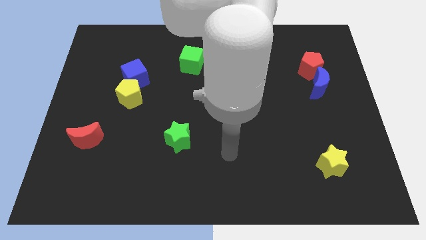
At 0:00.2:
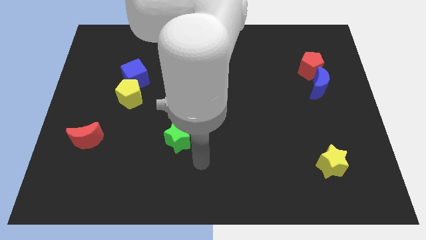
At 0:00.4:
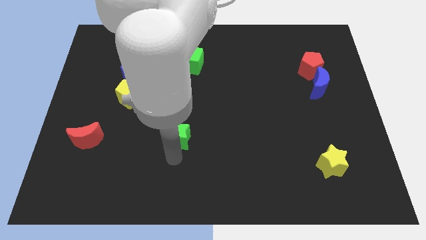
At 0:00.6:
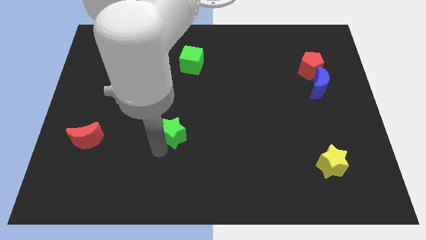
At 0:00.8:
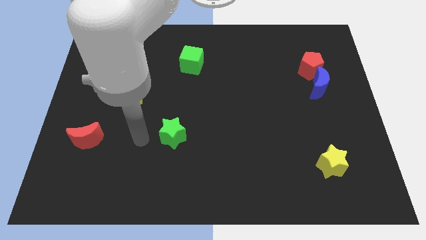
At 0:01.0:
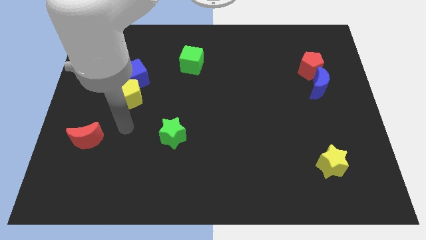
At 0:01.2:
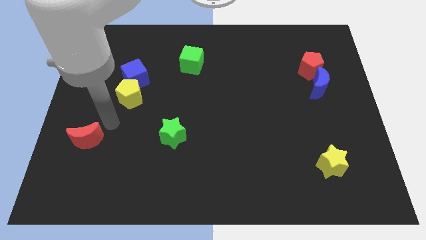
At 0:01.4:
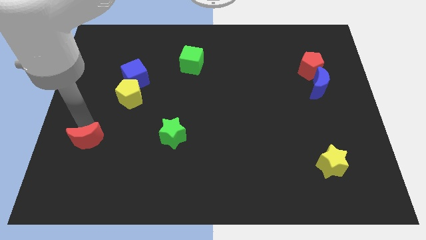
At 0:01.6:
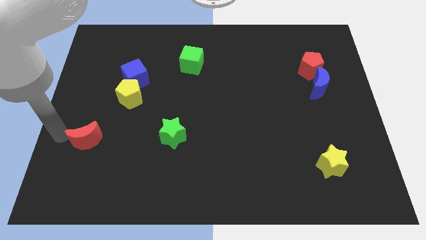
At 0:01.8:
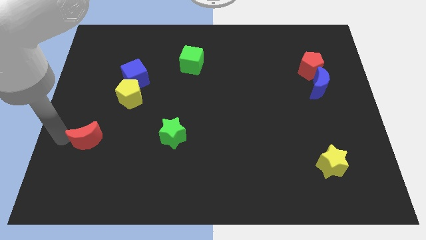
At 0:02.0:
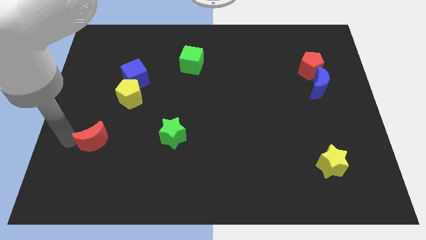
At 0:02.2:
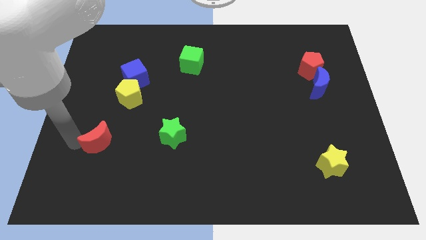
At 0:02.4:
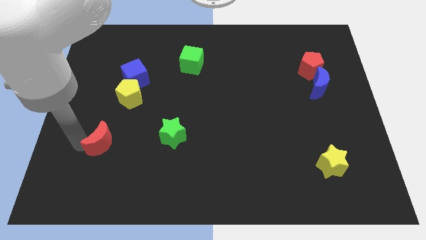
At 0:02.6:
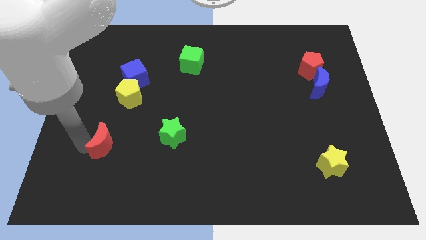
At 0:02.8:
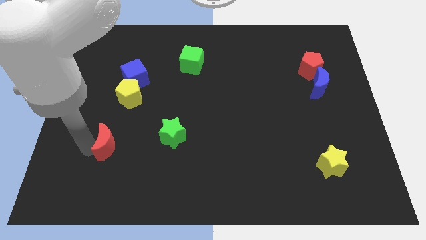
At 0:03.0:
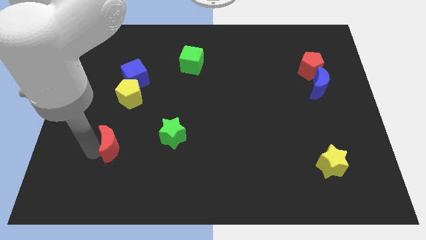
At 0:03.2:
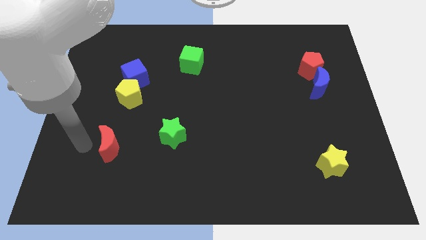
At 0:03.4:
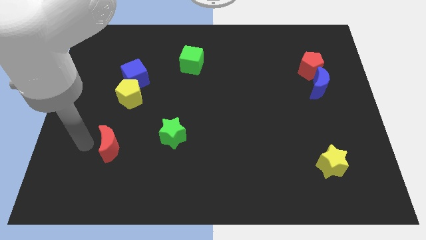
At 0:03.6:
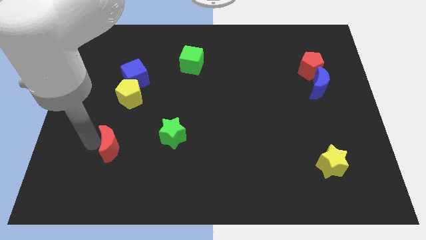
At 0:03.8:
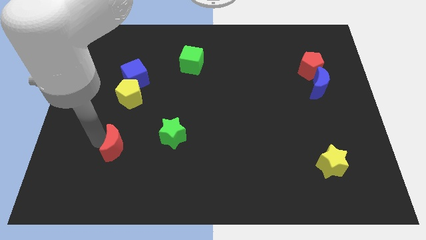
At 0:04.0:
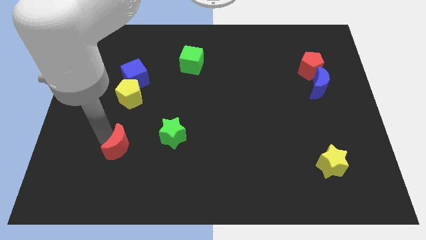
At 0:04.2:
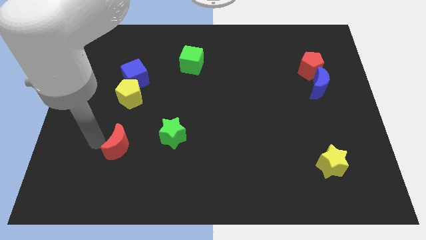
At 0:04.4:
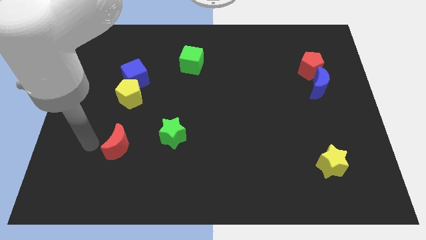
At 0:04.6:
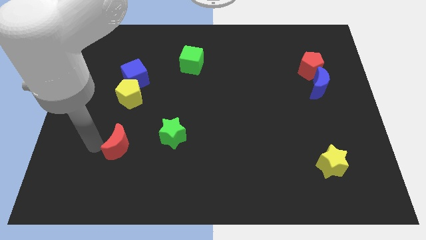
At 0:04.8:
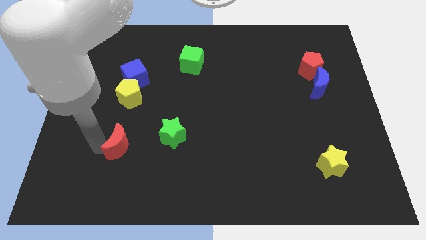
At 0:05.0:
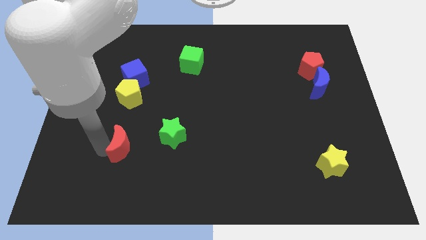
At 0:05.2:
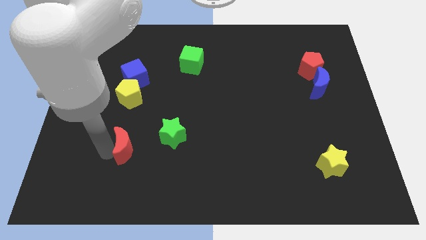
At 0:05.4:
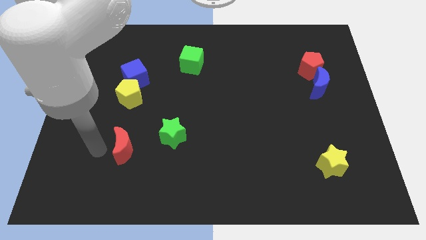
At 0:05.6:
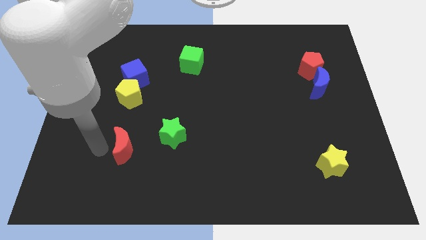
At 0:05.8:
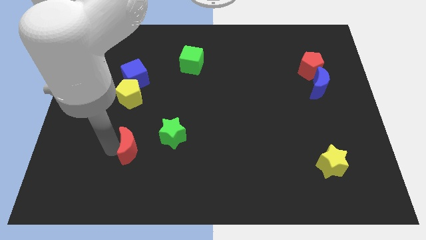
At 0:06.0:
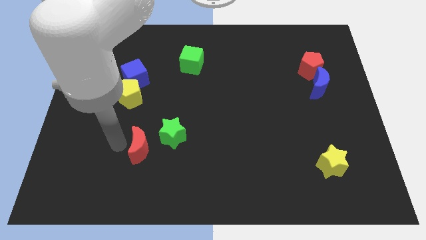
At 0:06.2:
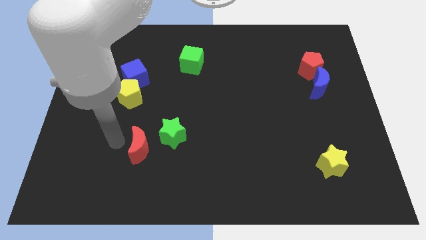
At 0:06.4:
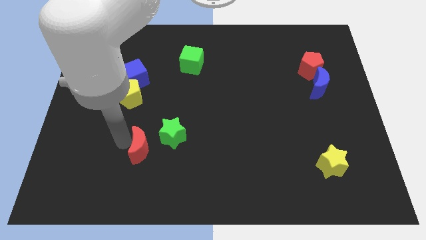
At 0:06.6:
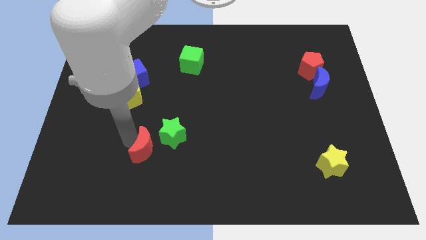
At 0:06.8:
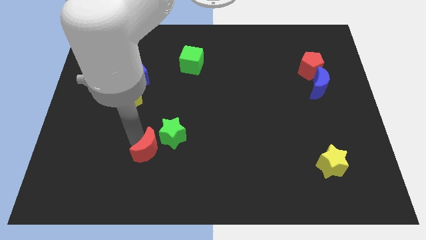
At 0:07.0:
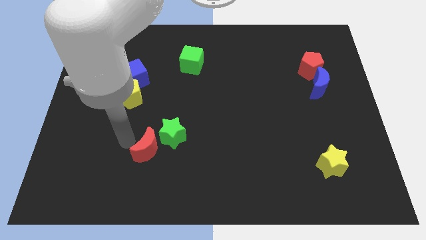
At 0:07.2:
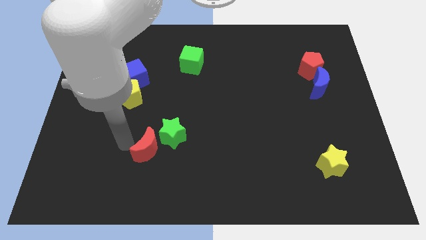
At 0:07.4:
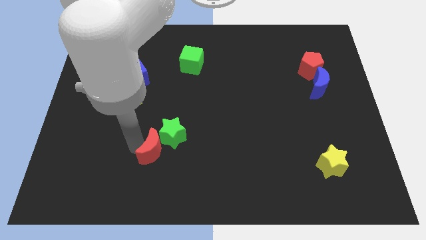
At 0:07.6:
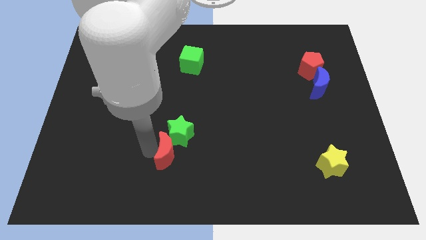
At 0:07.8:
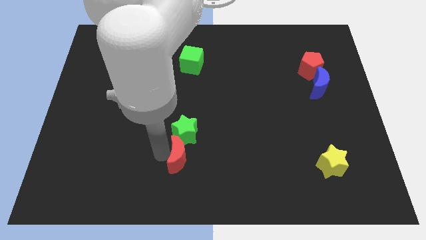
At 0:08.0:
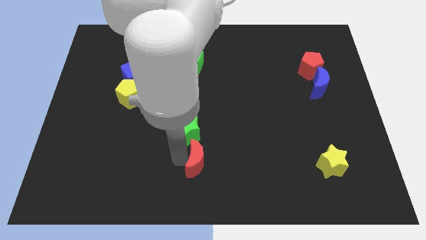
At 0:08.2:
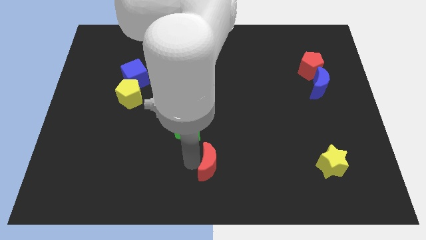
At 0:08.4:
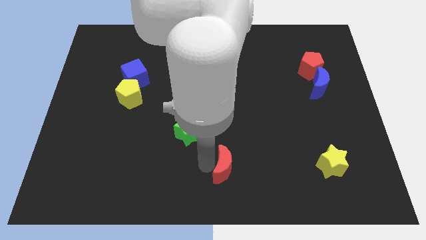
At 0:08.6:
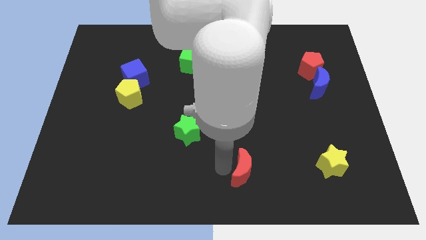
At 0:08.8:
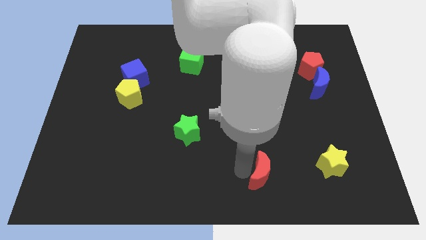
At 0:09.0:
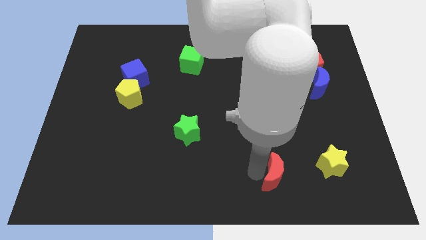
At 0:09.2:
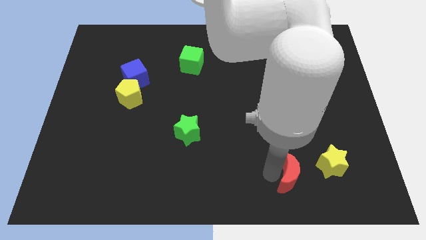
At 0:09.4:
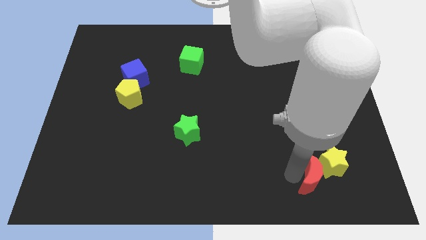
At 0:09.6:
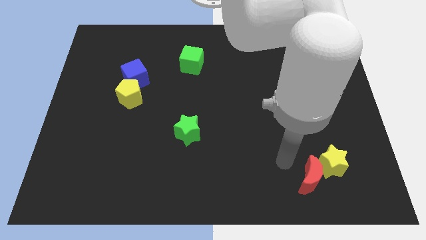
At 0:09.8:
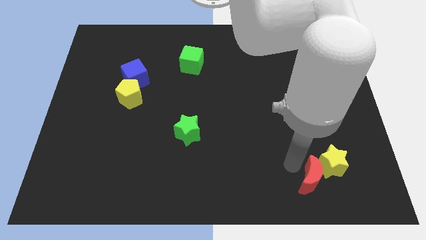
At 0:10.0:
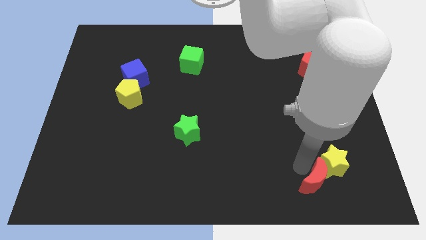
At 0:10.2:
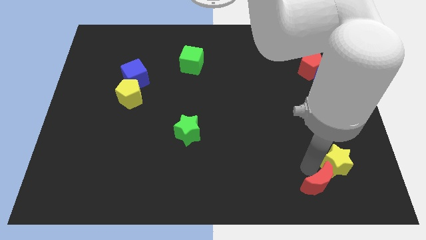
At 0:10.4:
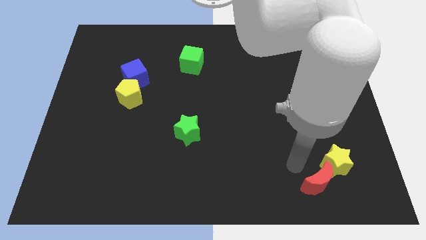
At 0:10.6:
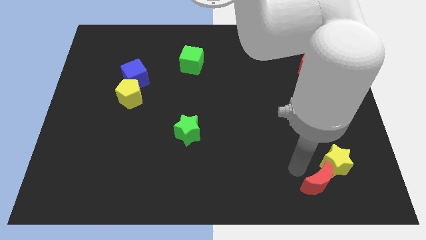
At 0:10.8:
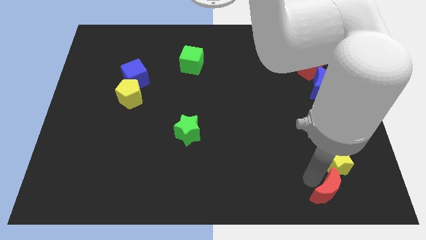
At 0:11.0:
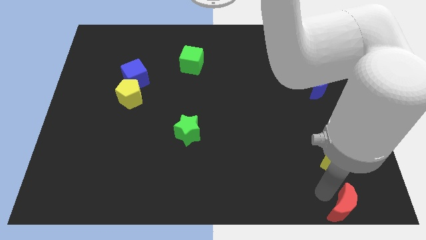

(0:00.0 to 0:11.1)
slide the red moon to the bottom right

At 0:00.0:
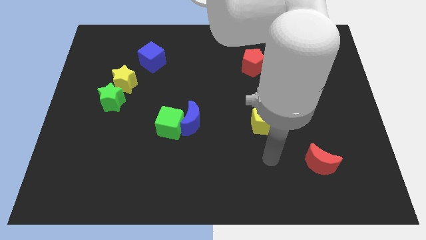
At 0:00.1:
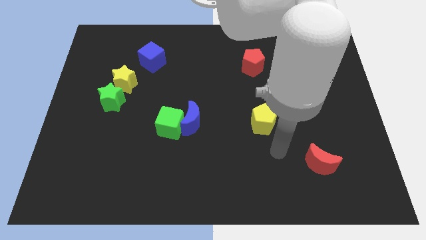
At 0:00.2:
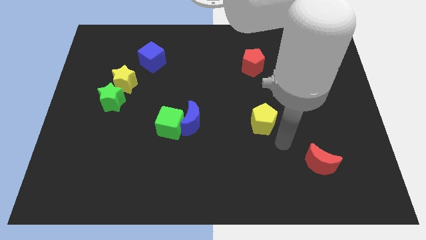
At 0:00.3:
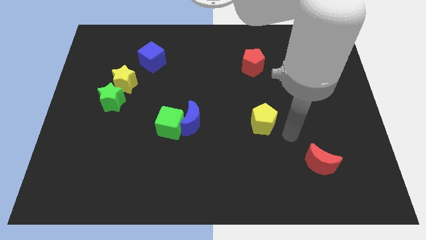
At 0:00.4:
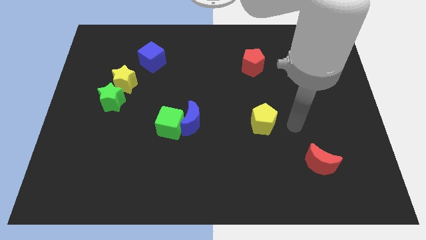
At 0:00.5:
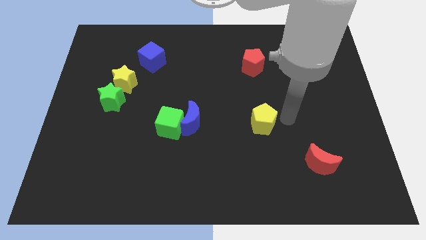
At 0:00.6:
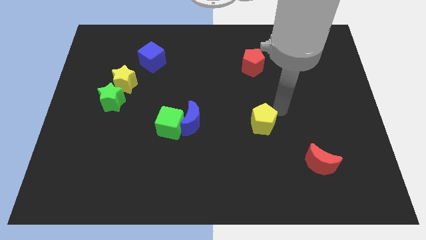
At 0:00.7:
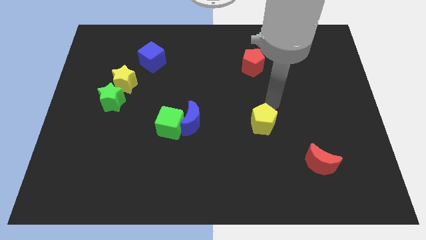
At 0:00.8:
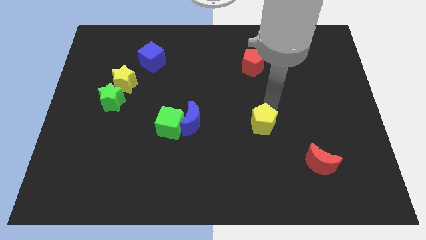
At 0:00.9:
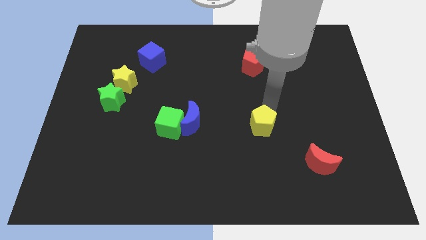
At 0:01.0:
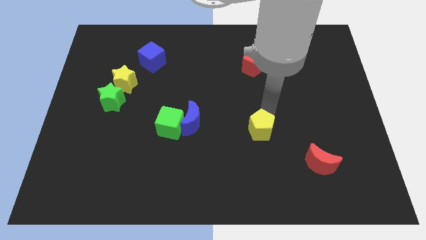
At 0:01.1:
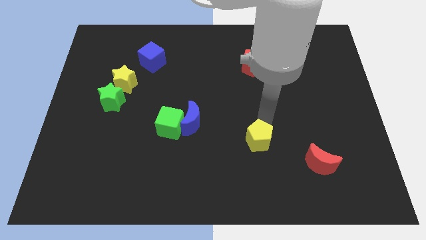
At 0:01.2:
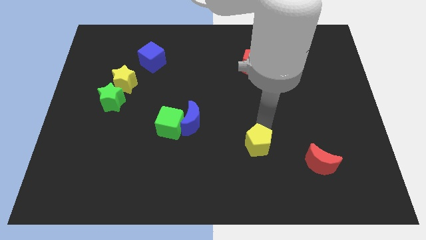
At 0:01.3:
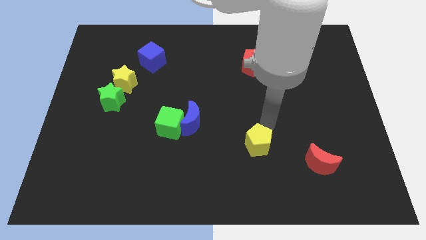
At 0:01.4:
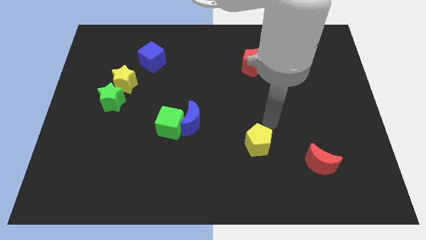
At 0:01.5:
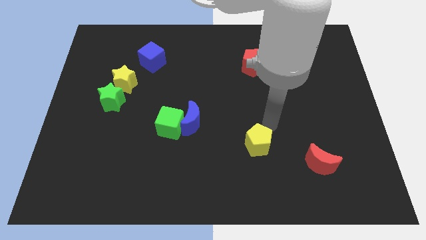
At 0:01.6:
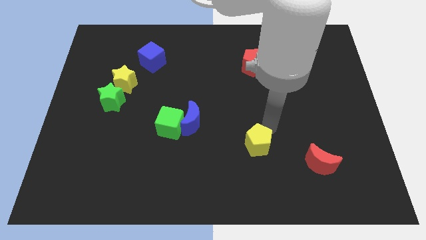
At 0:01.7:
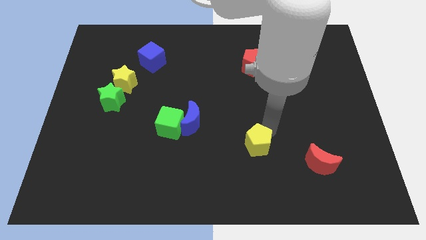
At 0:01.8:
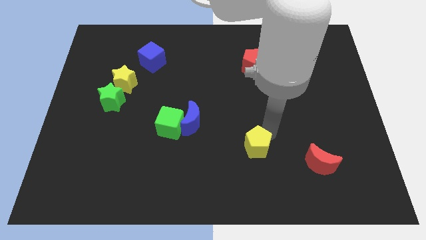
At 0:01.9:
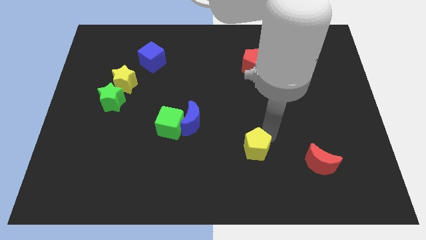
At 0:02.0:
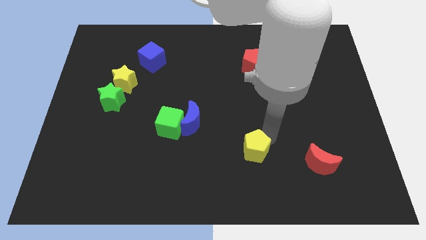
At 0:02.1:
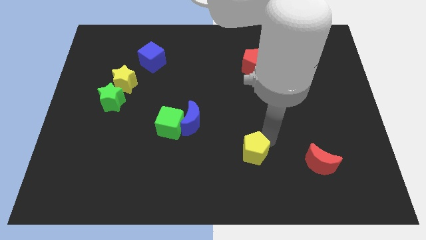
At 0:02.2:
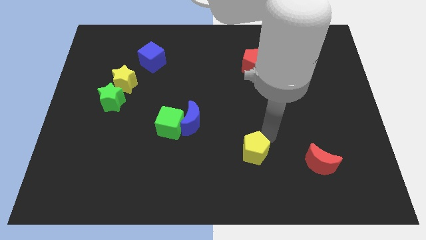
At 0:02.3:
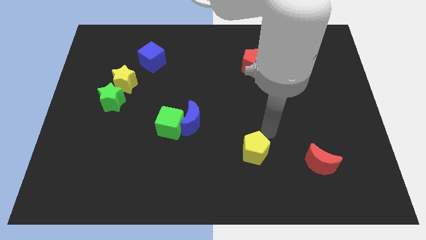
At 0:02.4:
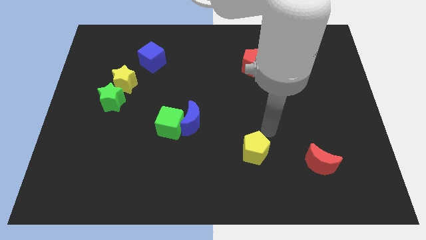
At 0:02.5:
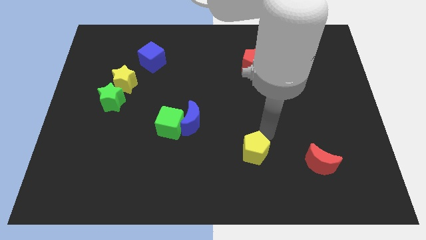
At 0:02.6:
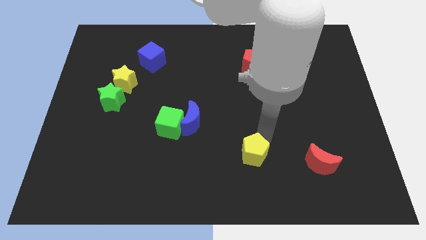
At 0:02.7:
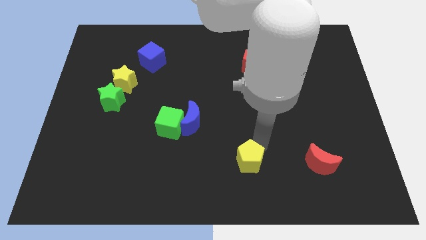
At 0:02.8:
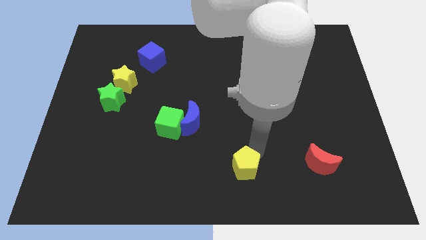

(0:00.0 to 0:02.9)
put the yellow pentagon to the bottom
